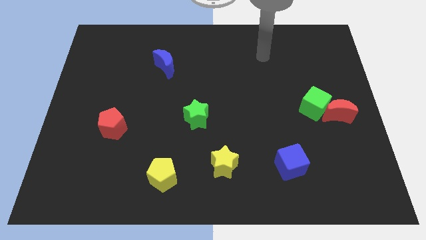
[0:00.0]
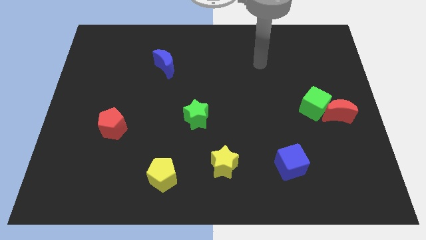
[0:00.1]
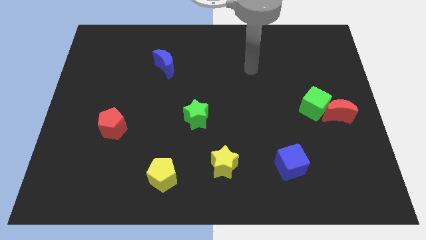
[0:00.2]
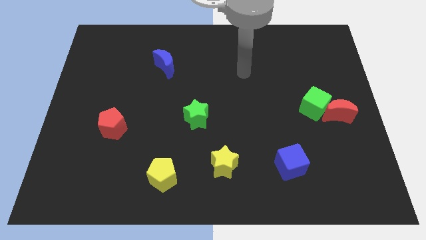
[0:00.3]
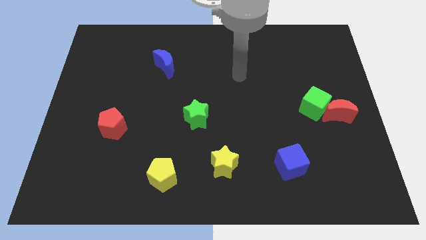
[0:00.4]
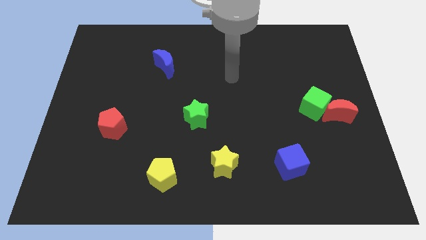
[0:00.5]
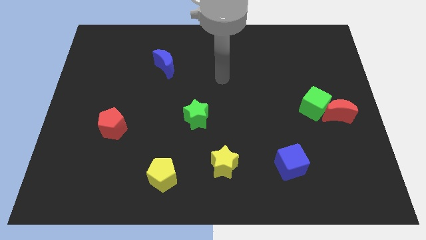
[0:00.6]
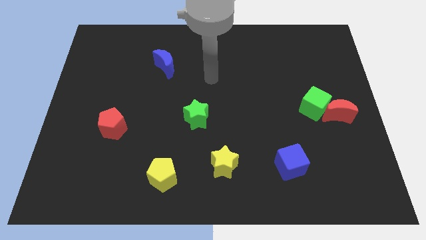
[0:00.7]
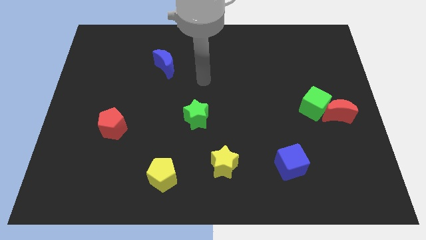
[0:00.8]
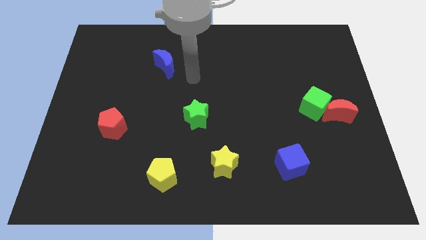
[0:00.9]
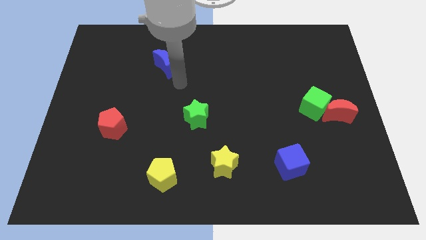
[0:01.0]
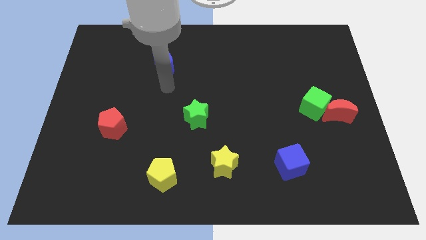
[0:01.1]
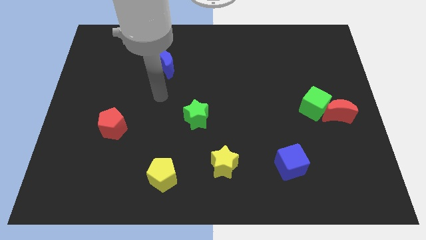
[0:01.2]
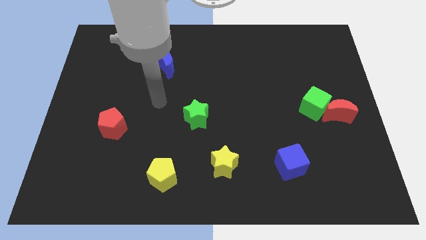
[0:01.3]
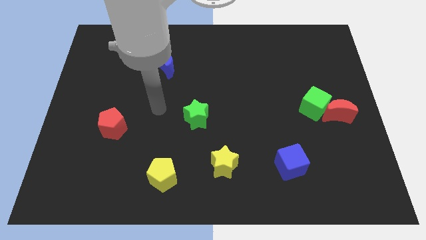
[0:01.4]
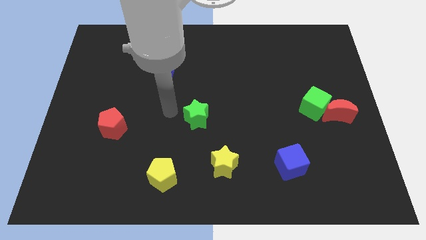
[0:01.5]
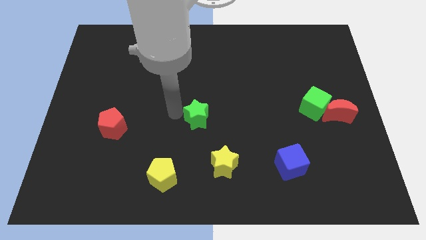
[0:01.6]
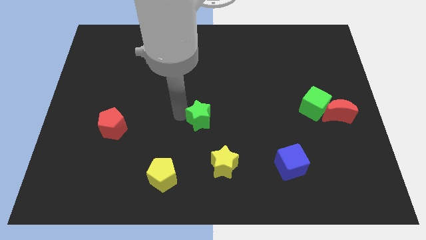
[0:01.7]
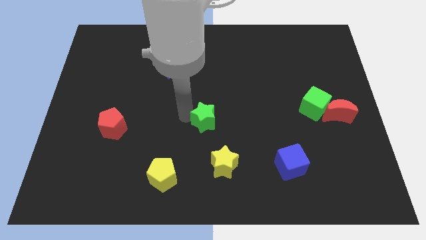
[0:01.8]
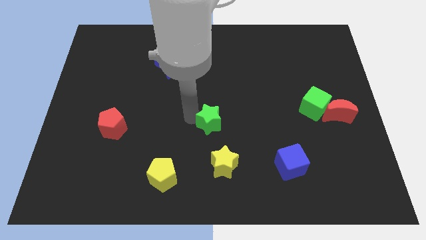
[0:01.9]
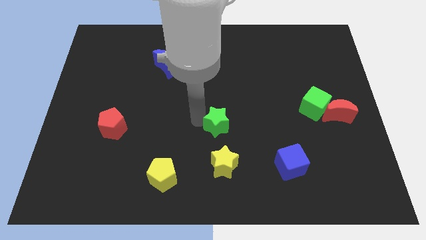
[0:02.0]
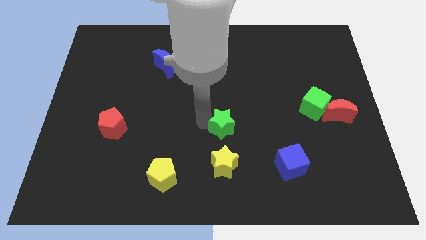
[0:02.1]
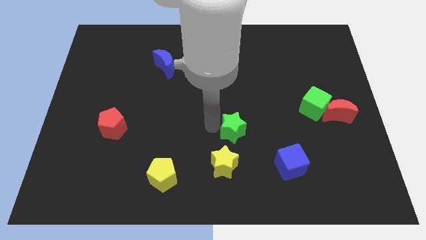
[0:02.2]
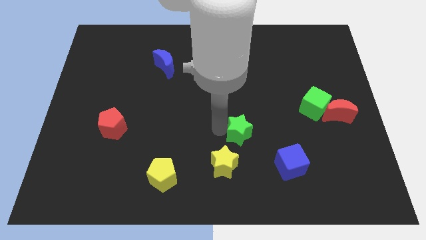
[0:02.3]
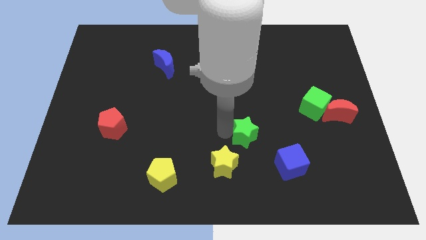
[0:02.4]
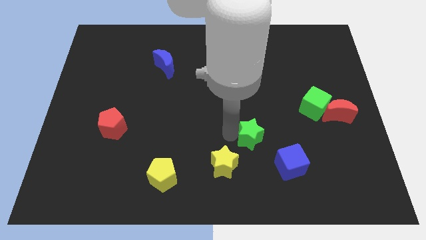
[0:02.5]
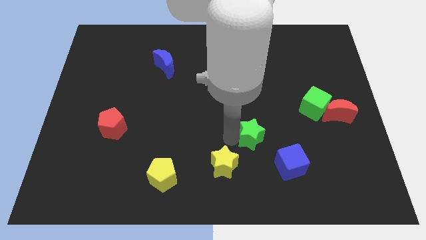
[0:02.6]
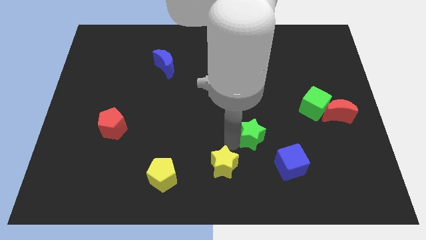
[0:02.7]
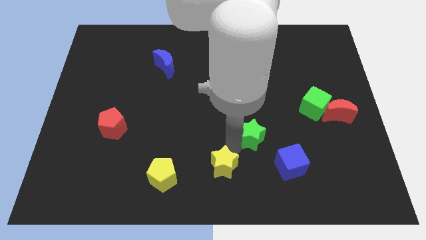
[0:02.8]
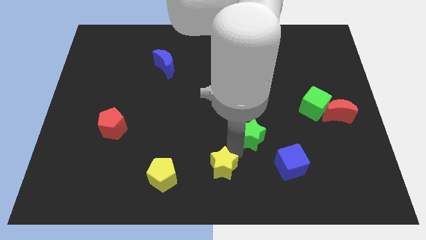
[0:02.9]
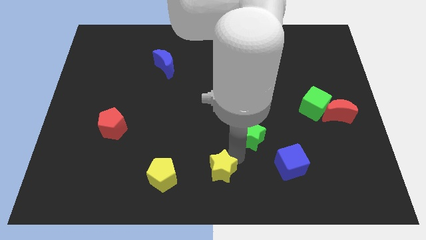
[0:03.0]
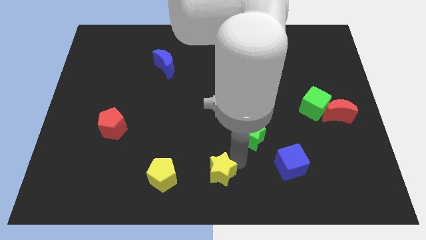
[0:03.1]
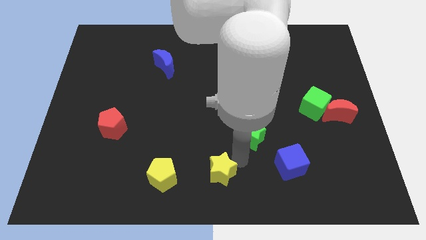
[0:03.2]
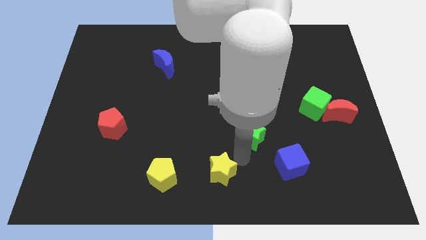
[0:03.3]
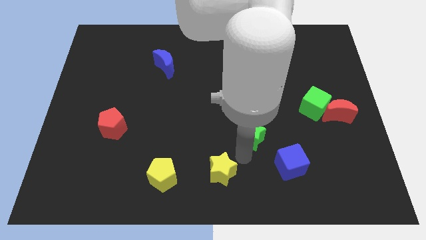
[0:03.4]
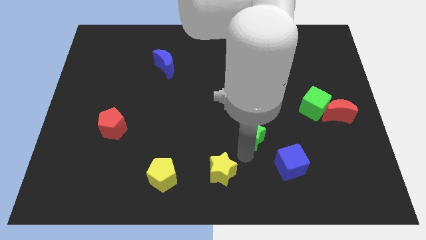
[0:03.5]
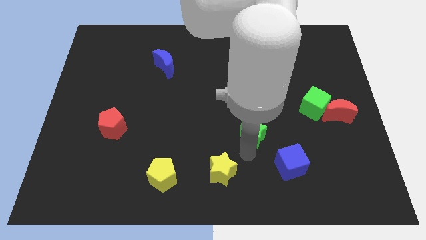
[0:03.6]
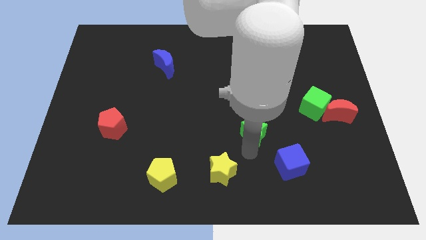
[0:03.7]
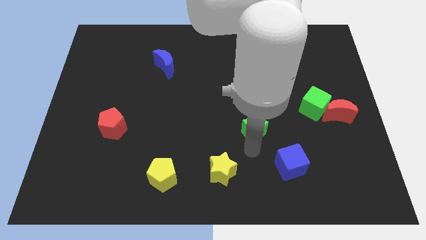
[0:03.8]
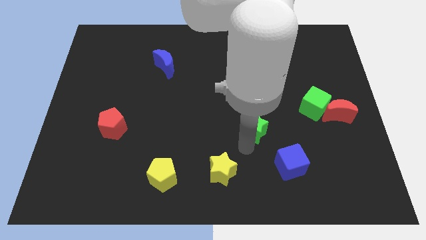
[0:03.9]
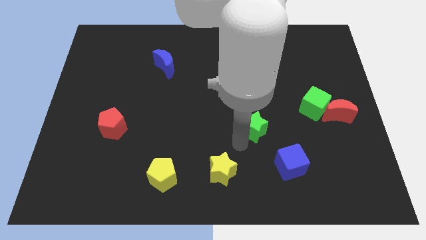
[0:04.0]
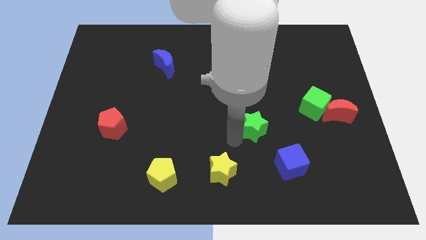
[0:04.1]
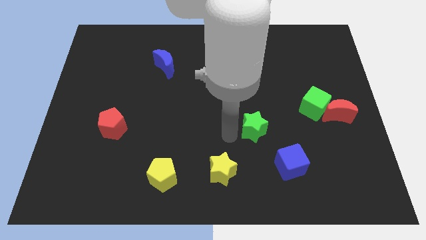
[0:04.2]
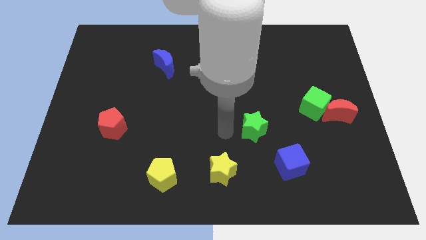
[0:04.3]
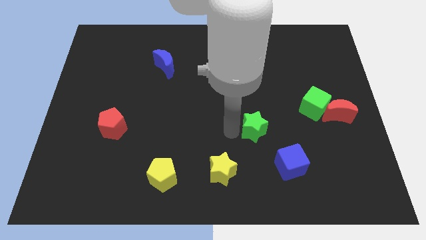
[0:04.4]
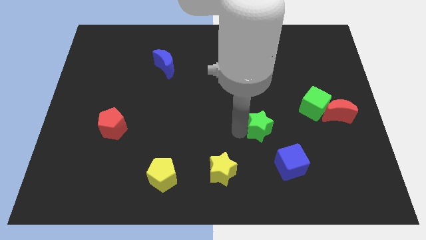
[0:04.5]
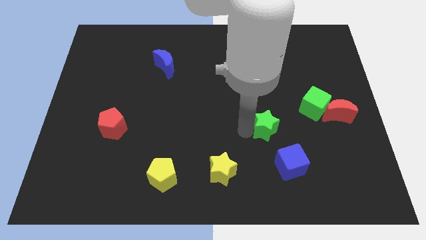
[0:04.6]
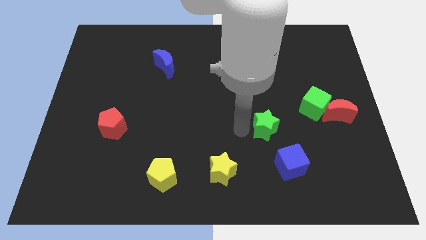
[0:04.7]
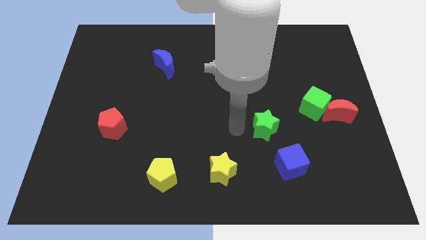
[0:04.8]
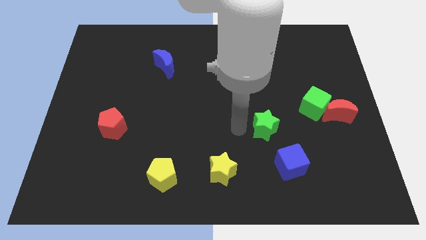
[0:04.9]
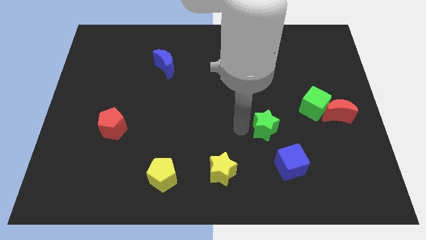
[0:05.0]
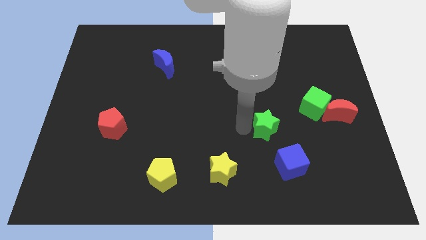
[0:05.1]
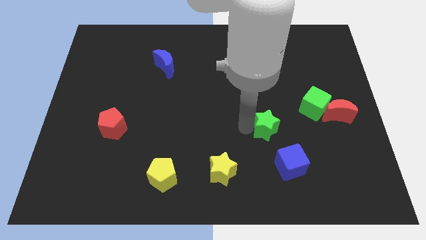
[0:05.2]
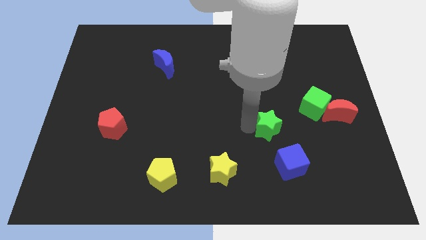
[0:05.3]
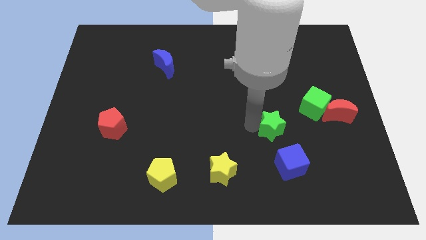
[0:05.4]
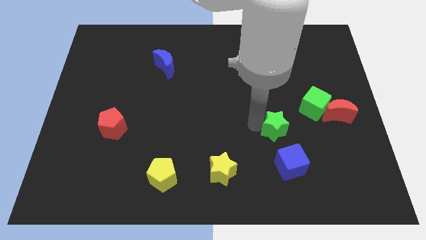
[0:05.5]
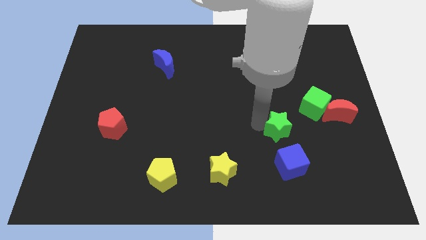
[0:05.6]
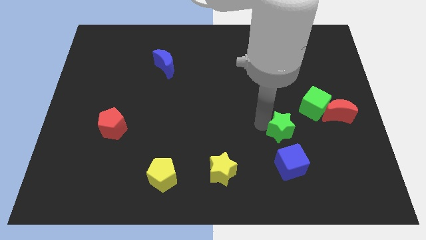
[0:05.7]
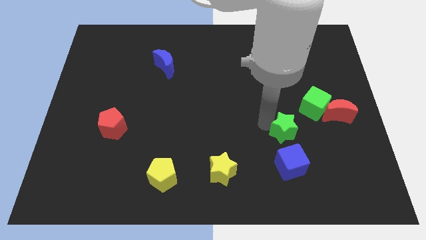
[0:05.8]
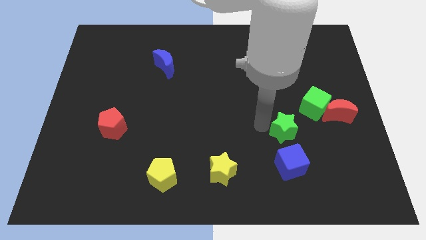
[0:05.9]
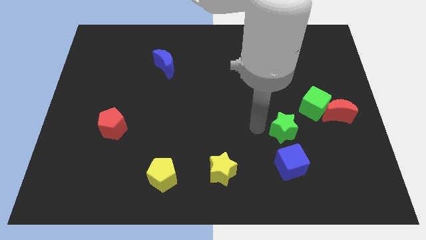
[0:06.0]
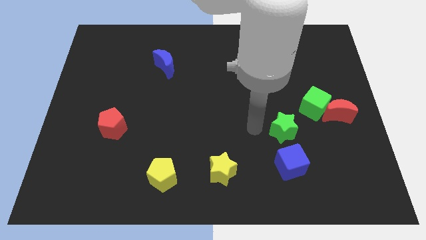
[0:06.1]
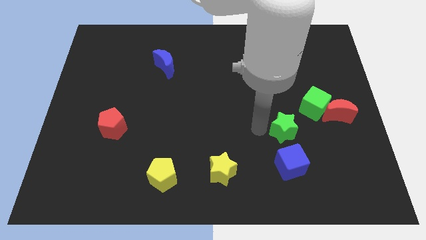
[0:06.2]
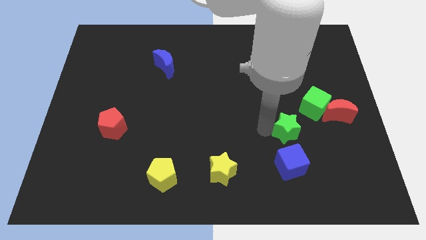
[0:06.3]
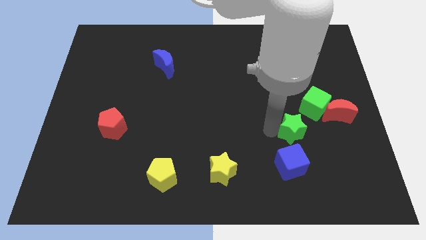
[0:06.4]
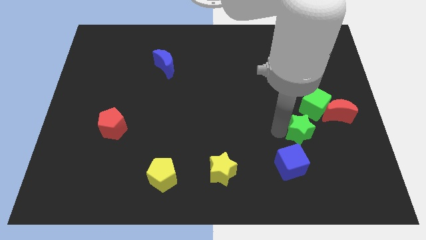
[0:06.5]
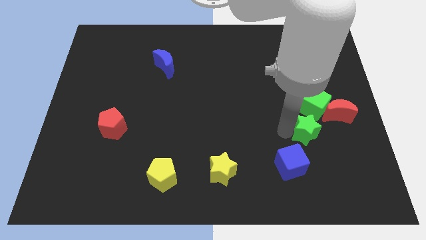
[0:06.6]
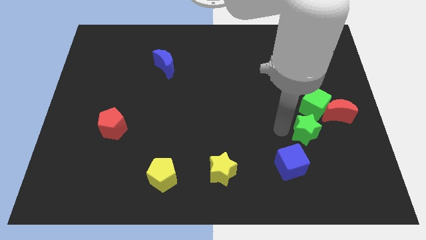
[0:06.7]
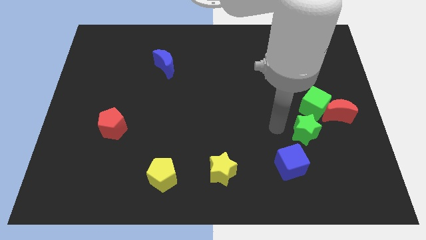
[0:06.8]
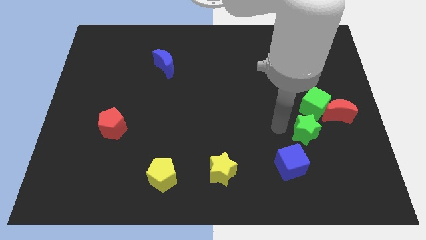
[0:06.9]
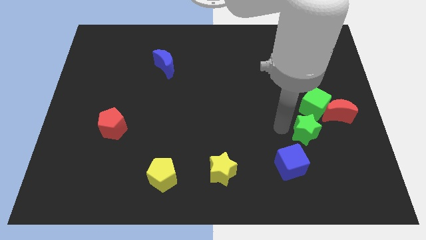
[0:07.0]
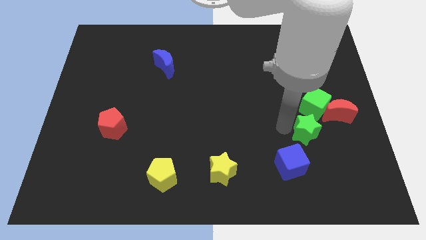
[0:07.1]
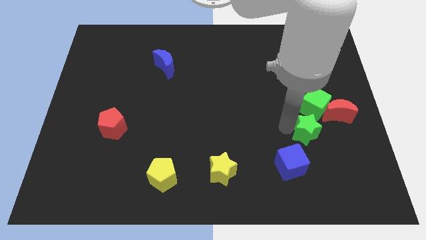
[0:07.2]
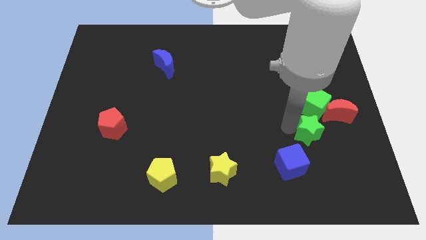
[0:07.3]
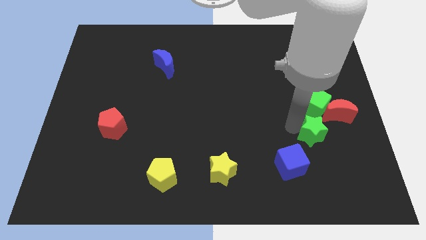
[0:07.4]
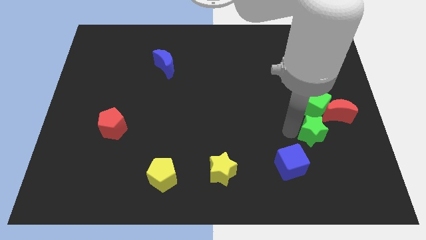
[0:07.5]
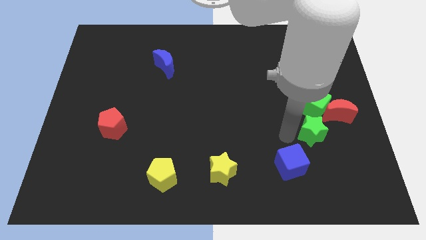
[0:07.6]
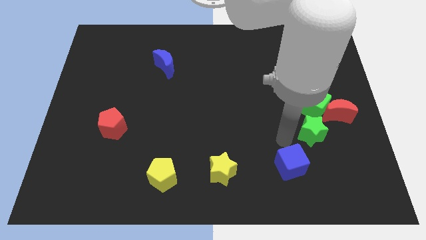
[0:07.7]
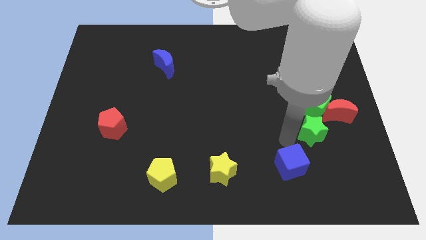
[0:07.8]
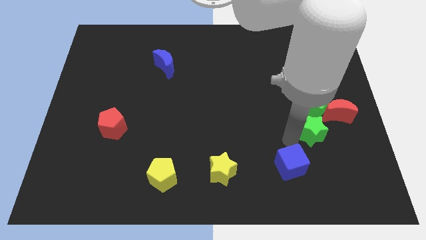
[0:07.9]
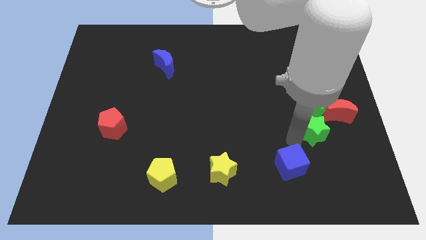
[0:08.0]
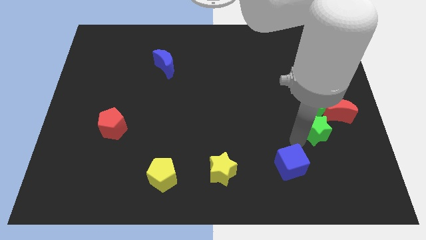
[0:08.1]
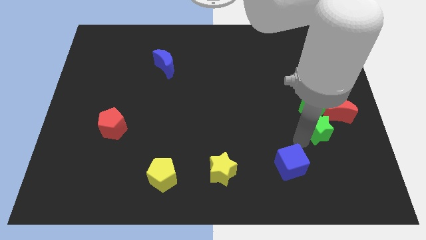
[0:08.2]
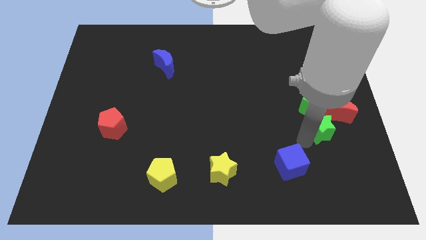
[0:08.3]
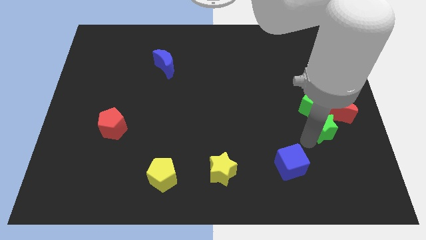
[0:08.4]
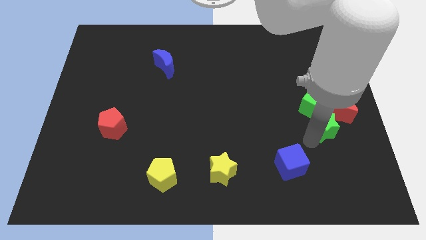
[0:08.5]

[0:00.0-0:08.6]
slide the green star close to the red moon
